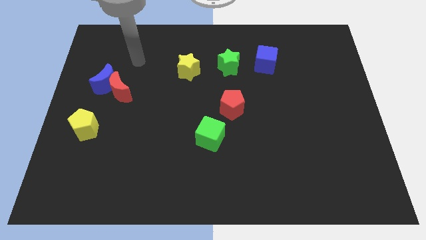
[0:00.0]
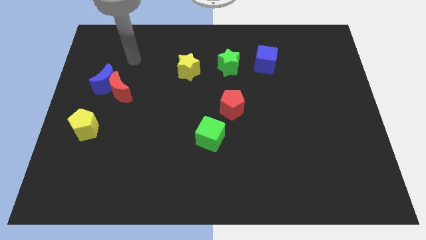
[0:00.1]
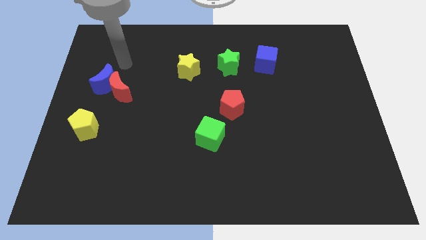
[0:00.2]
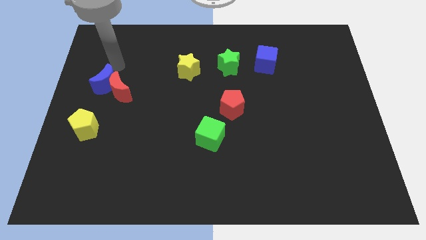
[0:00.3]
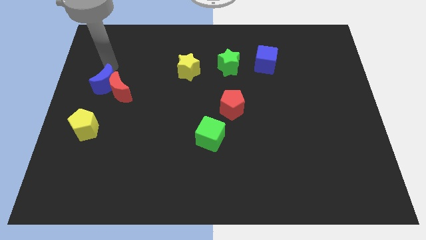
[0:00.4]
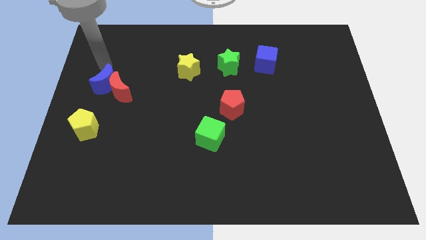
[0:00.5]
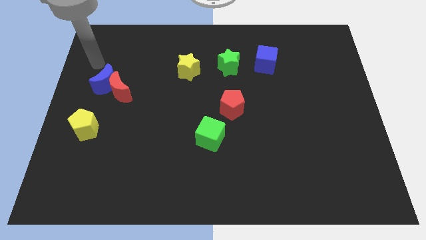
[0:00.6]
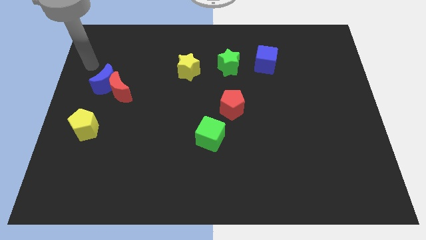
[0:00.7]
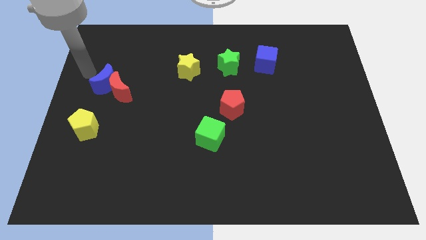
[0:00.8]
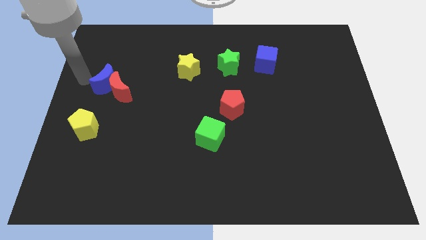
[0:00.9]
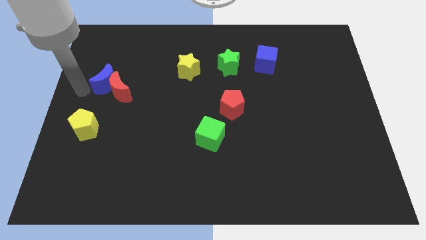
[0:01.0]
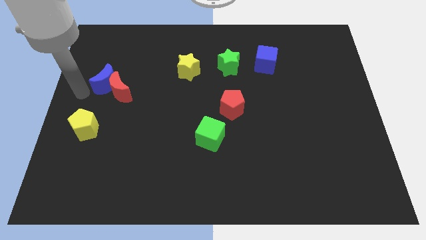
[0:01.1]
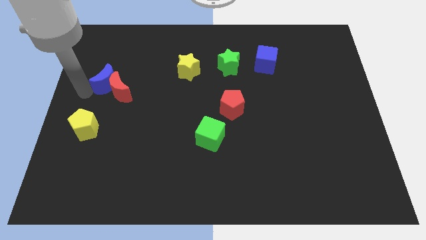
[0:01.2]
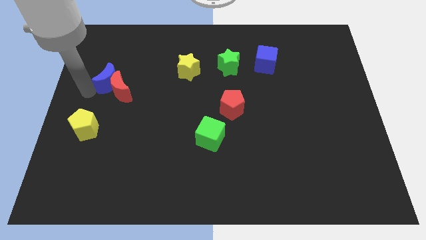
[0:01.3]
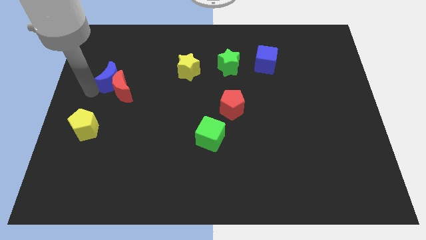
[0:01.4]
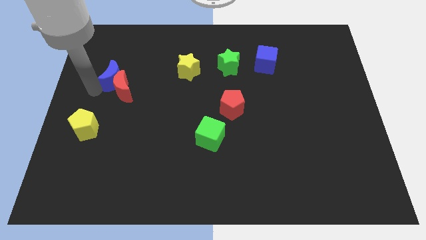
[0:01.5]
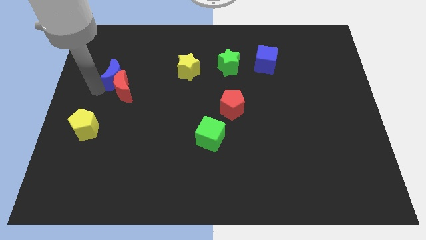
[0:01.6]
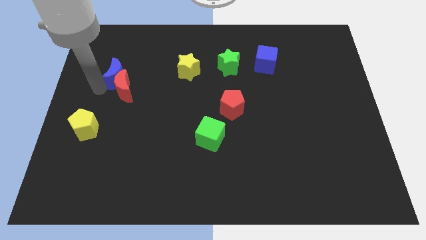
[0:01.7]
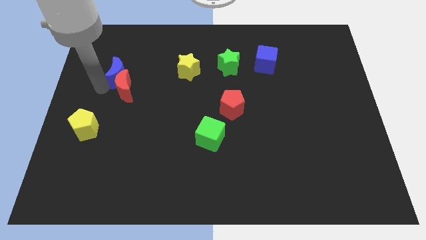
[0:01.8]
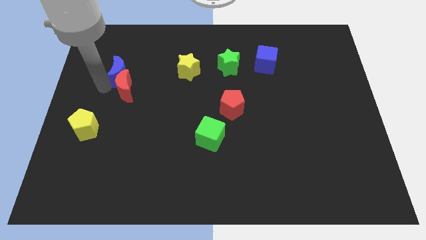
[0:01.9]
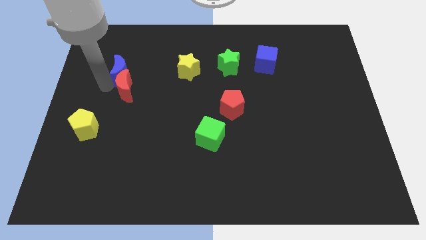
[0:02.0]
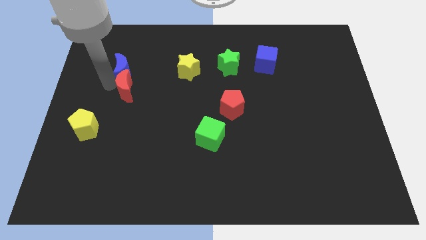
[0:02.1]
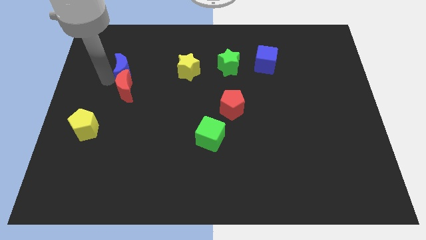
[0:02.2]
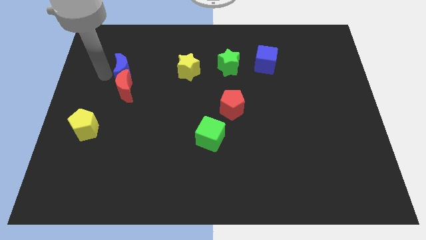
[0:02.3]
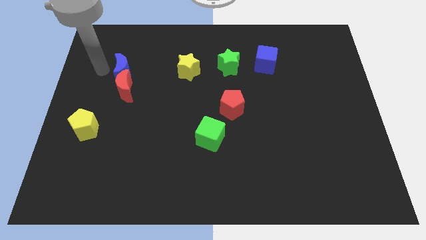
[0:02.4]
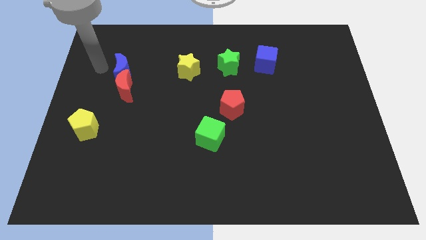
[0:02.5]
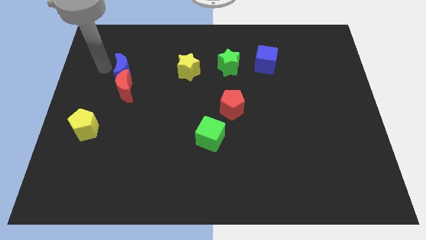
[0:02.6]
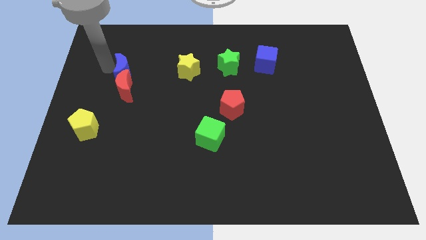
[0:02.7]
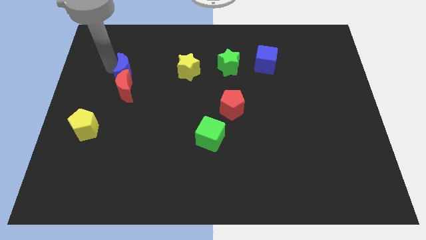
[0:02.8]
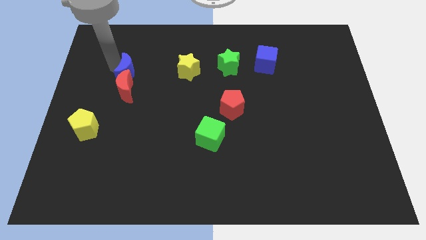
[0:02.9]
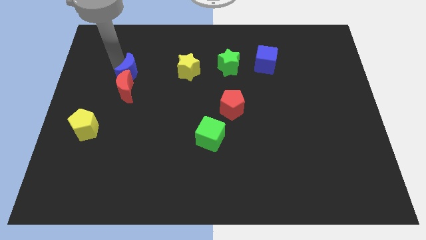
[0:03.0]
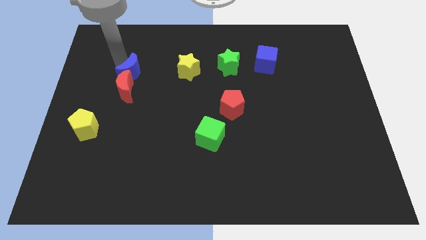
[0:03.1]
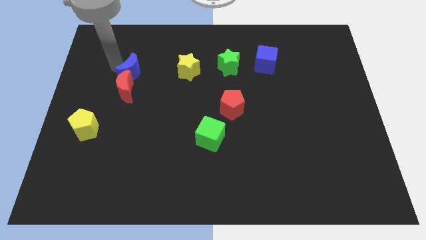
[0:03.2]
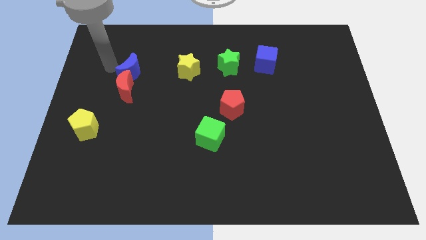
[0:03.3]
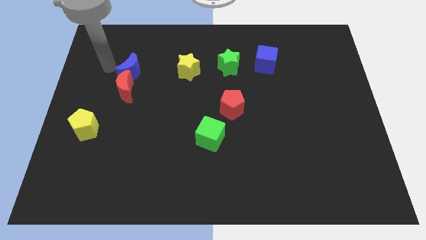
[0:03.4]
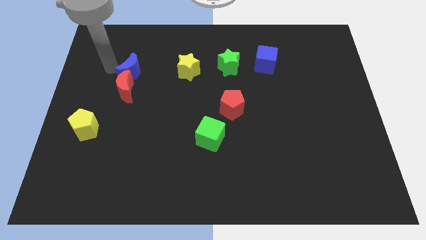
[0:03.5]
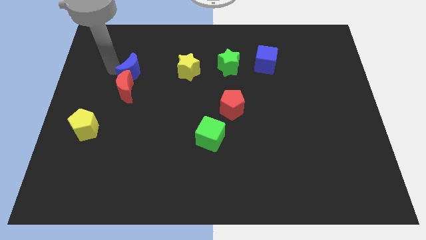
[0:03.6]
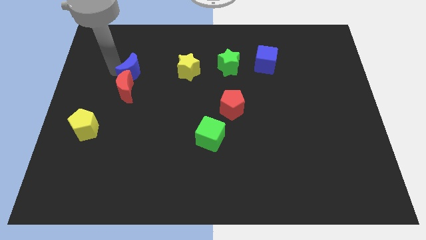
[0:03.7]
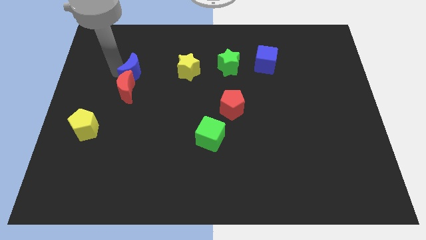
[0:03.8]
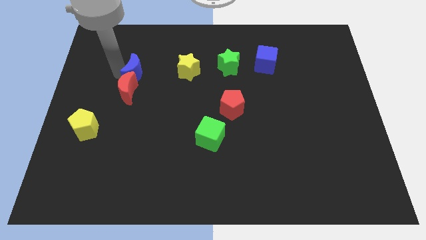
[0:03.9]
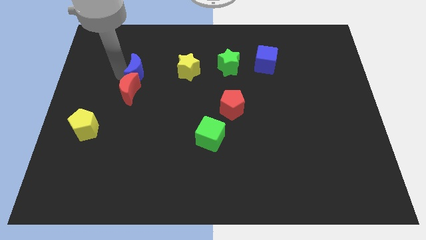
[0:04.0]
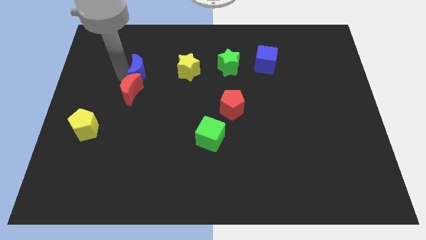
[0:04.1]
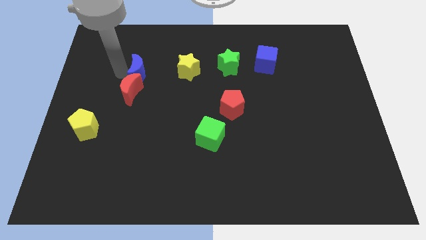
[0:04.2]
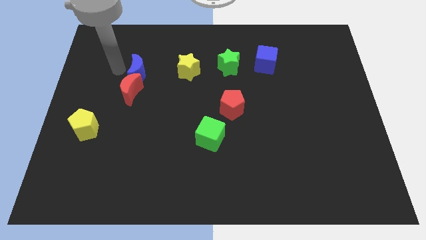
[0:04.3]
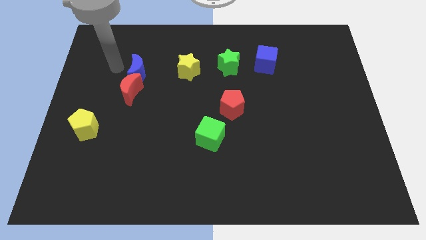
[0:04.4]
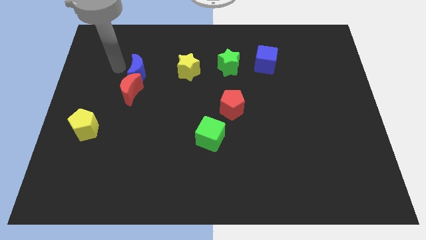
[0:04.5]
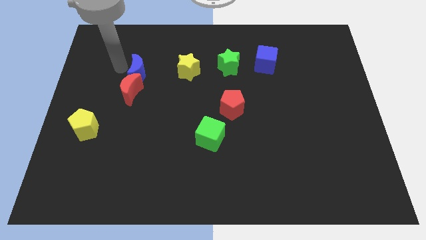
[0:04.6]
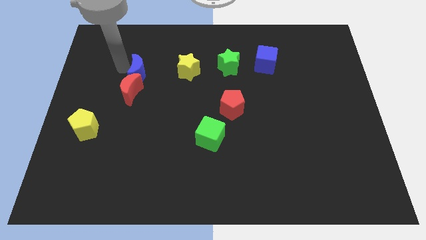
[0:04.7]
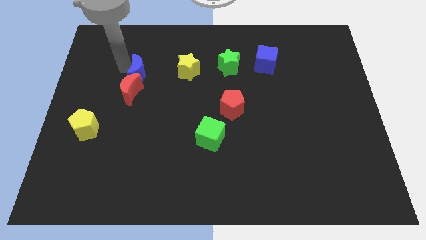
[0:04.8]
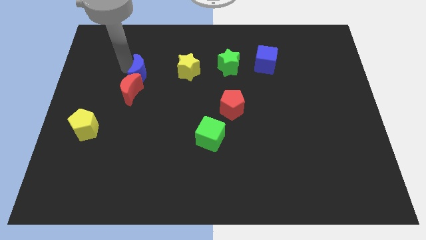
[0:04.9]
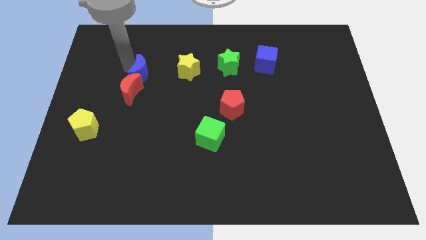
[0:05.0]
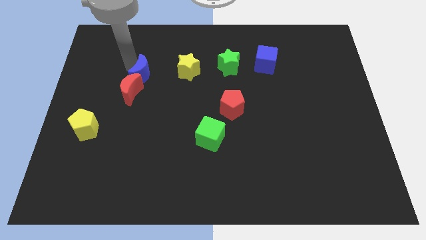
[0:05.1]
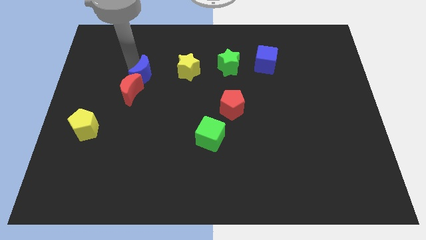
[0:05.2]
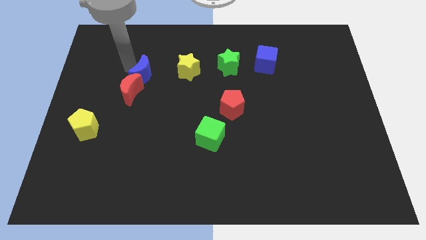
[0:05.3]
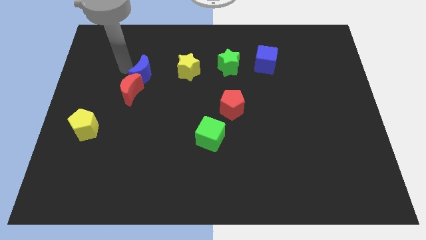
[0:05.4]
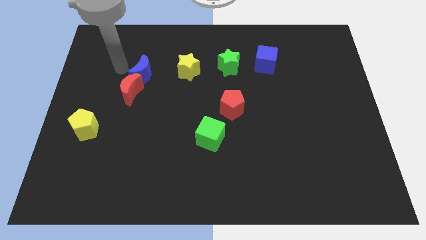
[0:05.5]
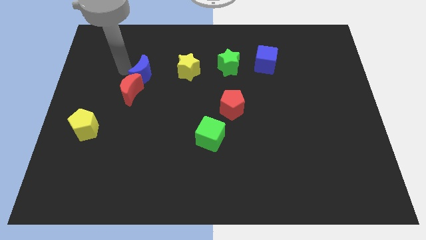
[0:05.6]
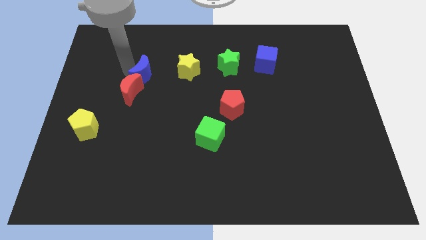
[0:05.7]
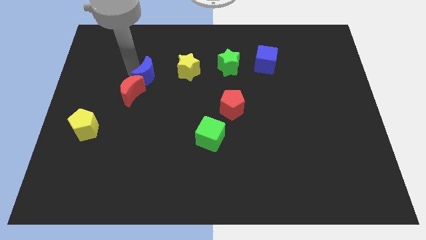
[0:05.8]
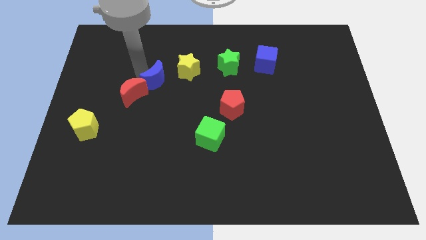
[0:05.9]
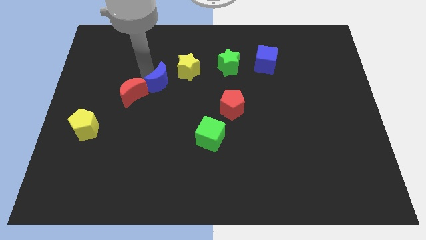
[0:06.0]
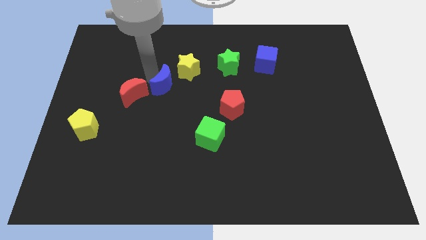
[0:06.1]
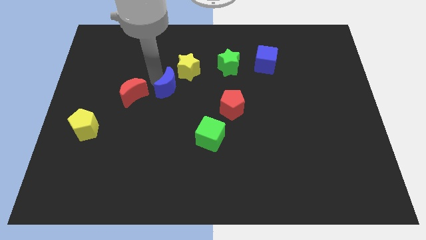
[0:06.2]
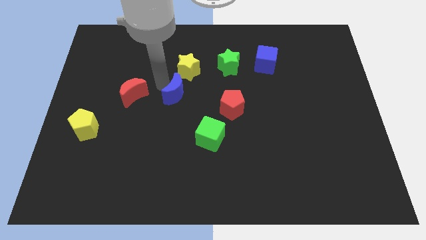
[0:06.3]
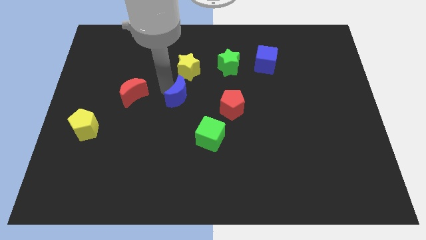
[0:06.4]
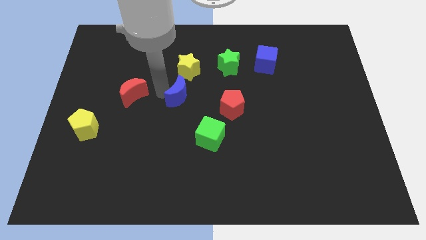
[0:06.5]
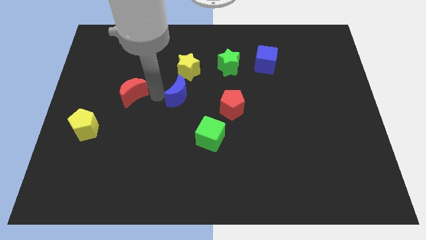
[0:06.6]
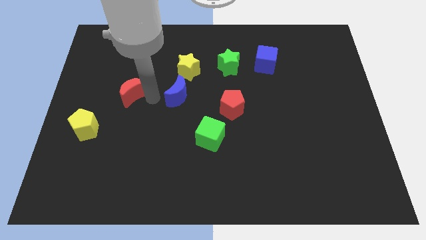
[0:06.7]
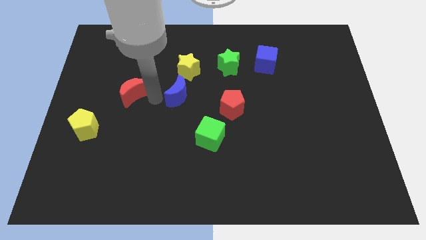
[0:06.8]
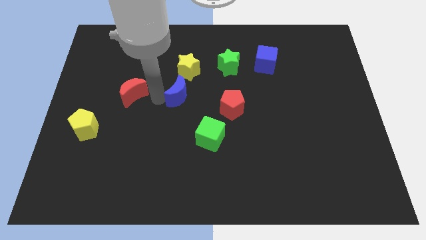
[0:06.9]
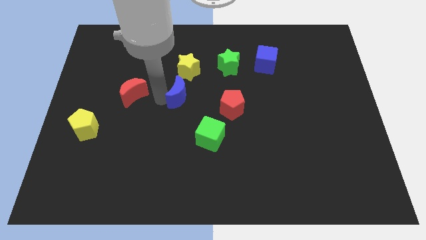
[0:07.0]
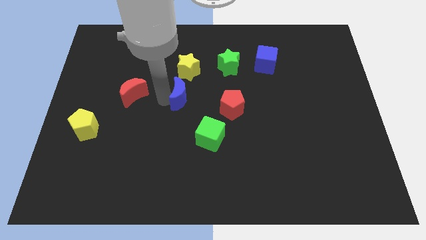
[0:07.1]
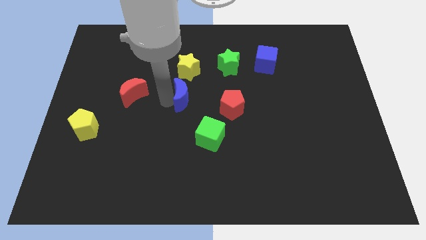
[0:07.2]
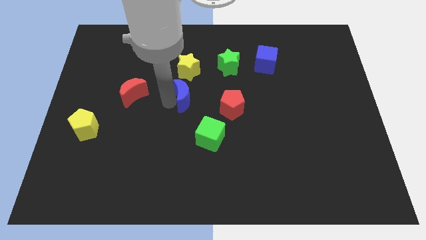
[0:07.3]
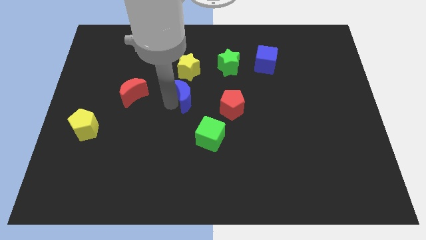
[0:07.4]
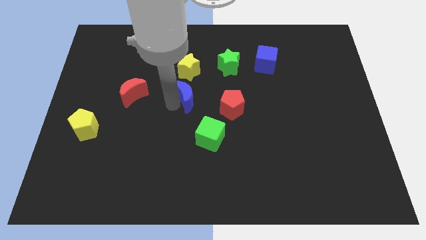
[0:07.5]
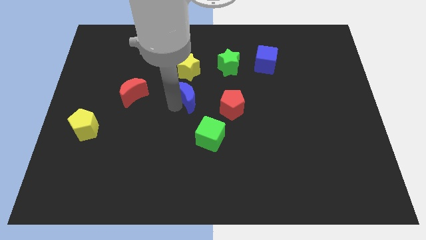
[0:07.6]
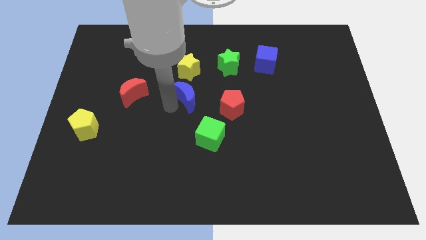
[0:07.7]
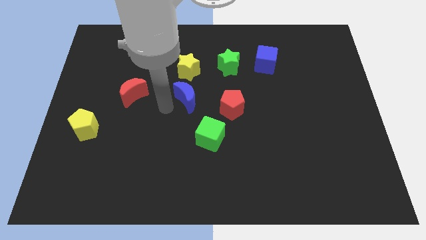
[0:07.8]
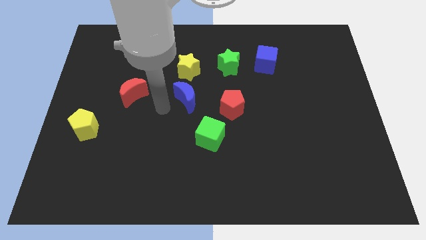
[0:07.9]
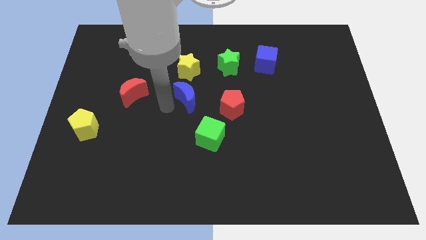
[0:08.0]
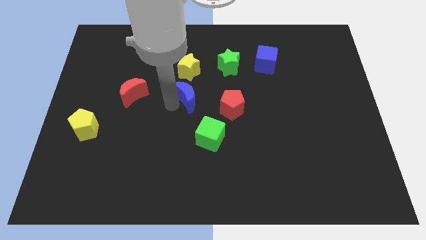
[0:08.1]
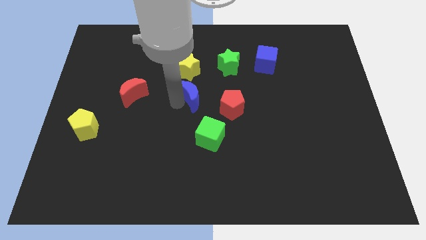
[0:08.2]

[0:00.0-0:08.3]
slide the blue moon right
